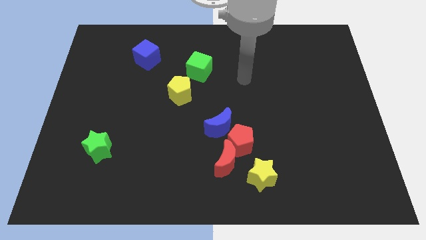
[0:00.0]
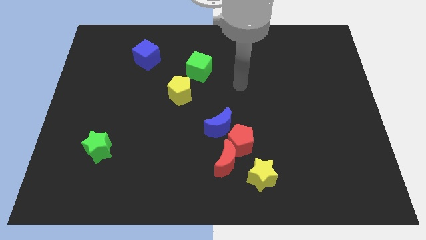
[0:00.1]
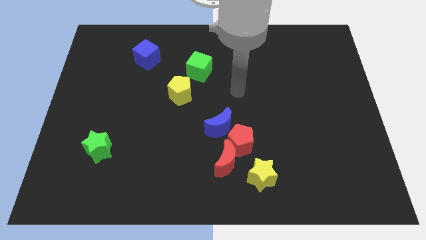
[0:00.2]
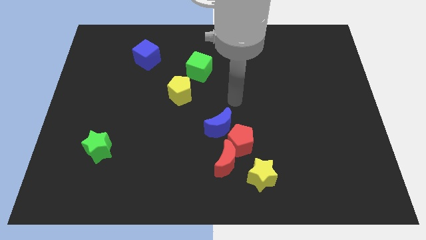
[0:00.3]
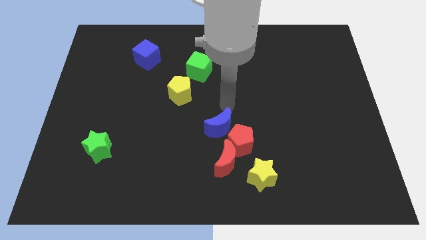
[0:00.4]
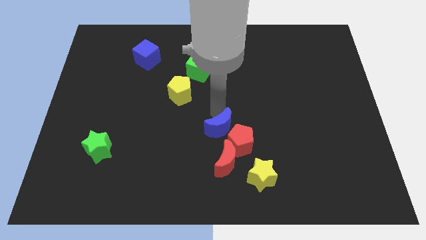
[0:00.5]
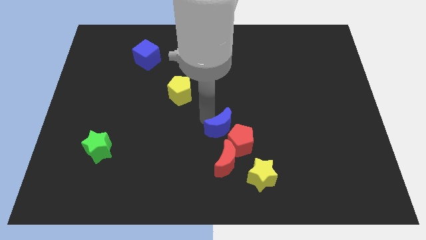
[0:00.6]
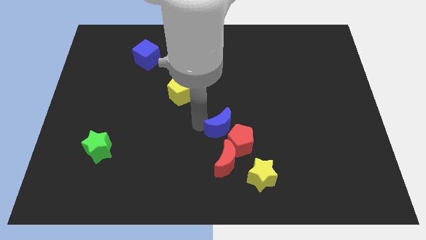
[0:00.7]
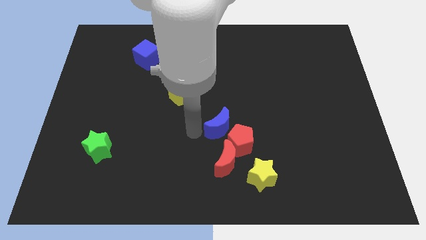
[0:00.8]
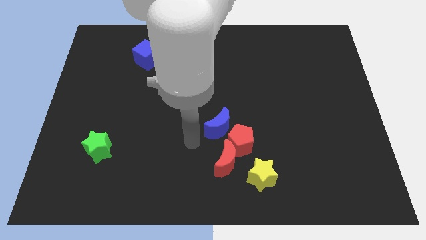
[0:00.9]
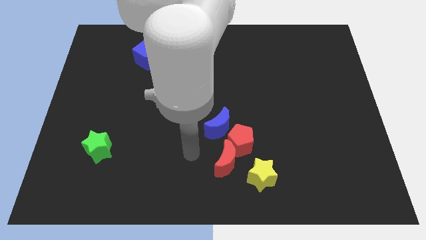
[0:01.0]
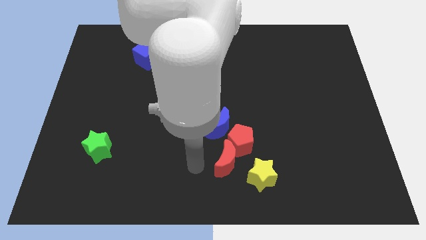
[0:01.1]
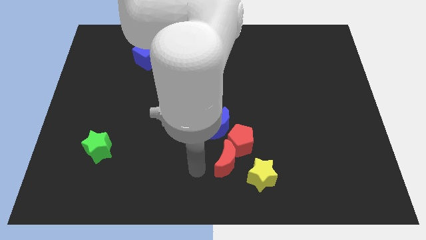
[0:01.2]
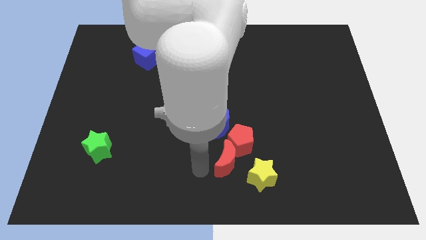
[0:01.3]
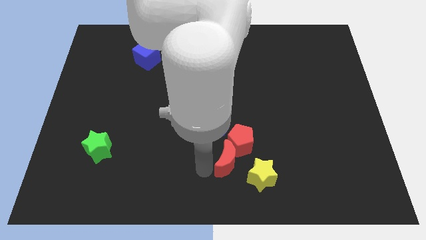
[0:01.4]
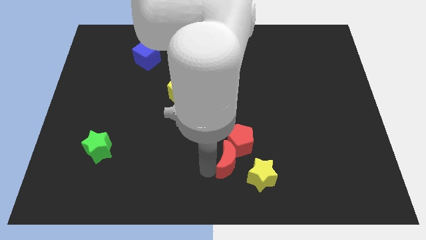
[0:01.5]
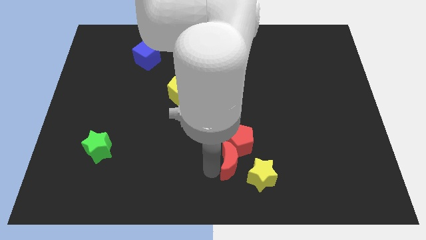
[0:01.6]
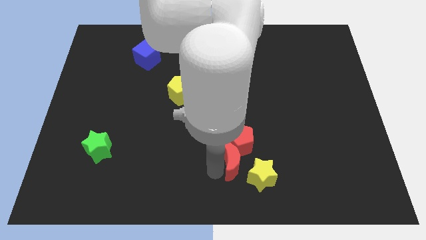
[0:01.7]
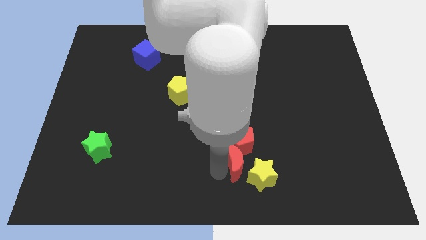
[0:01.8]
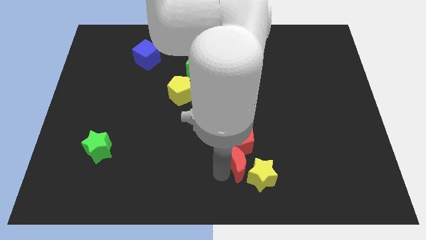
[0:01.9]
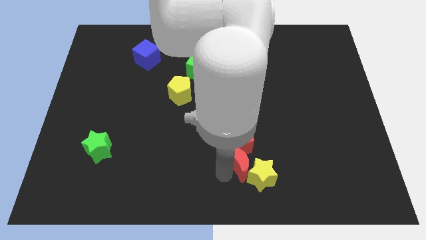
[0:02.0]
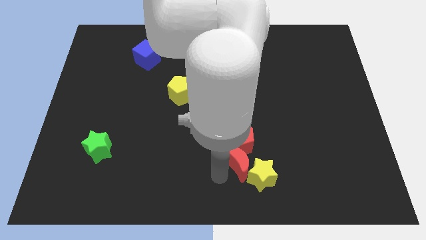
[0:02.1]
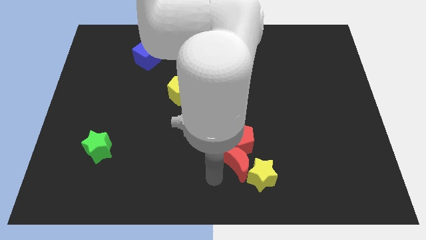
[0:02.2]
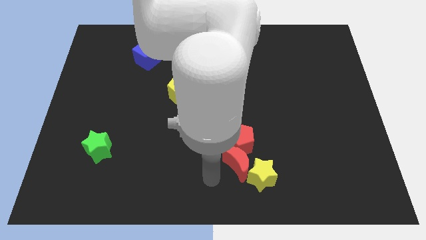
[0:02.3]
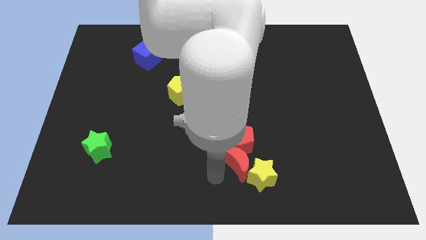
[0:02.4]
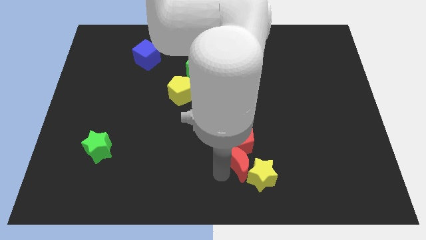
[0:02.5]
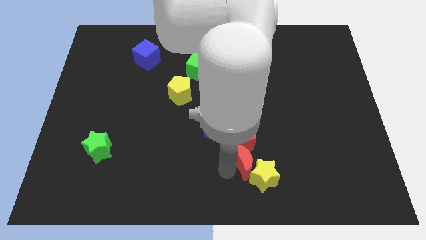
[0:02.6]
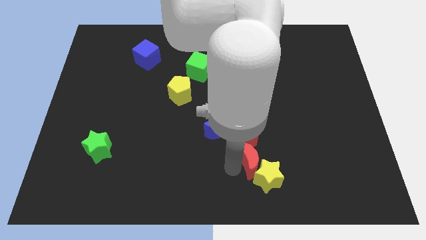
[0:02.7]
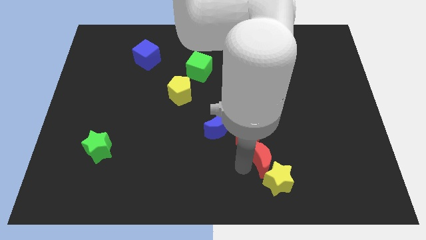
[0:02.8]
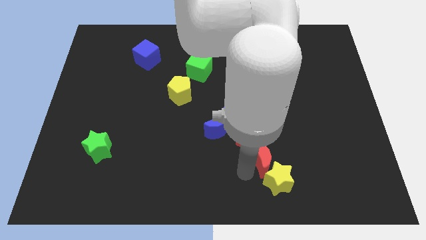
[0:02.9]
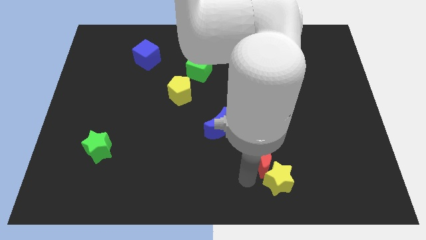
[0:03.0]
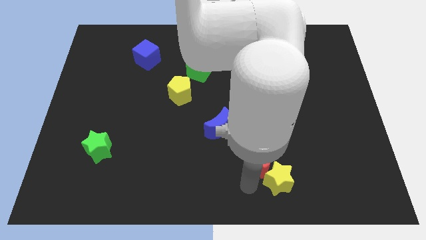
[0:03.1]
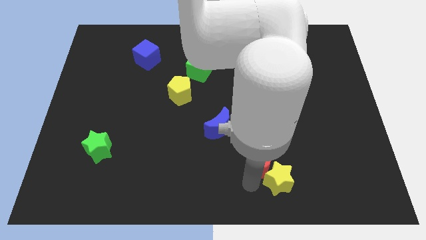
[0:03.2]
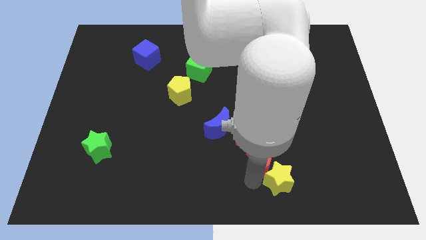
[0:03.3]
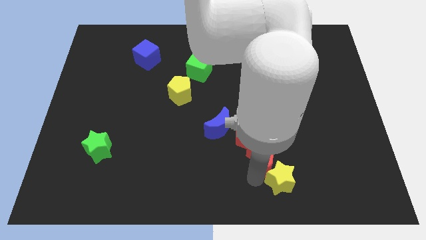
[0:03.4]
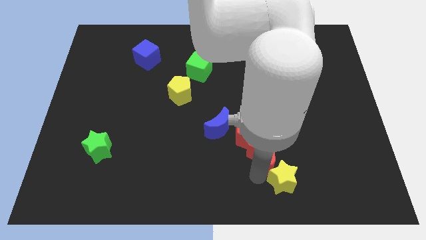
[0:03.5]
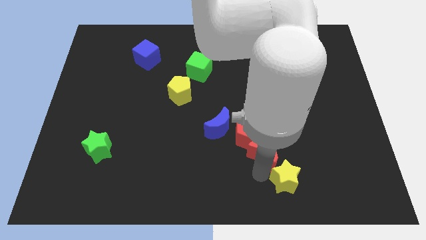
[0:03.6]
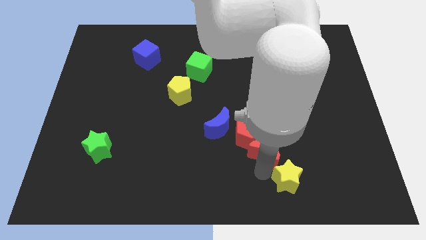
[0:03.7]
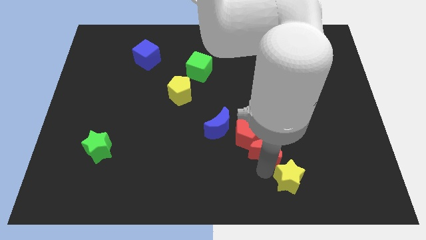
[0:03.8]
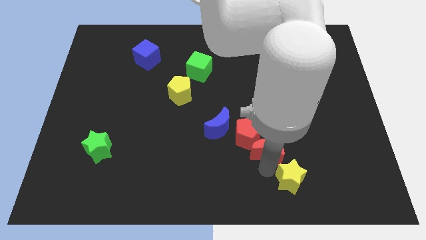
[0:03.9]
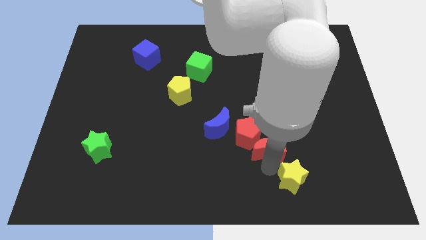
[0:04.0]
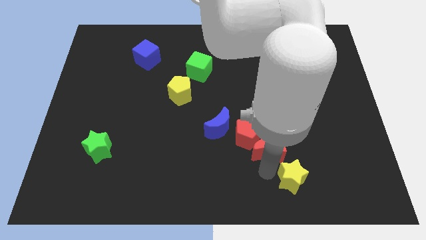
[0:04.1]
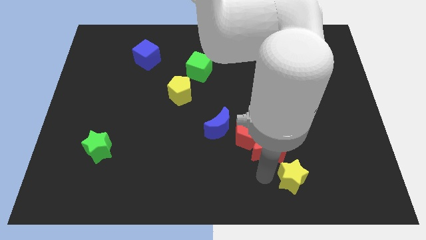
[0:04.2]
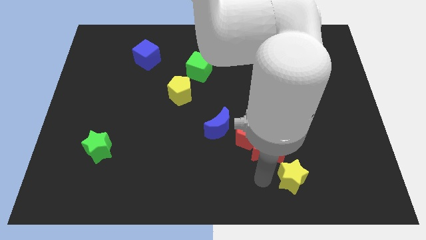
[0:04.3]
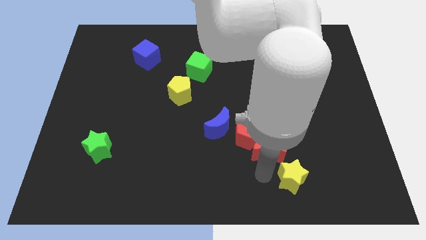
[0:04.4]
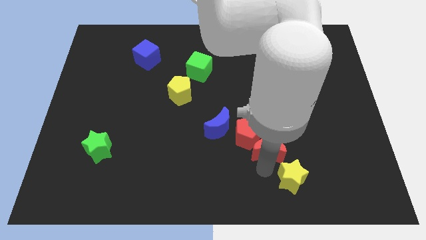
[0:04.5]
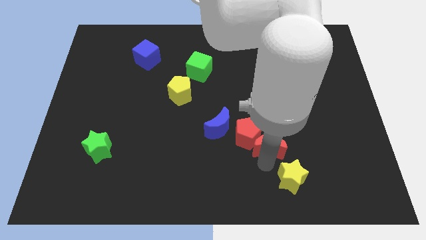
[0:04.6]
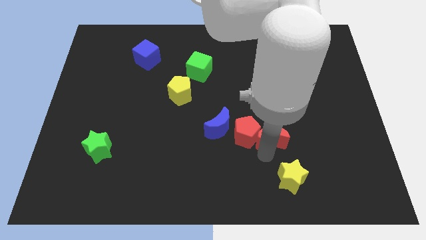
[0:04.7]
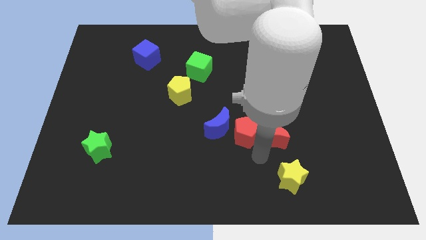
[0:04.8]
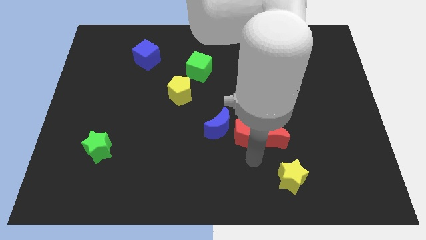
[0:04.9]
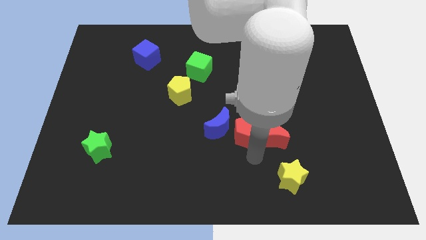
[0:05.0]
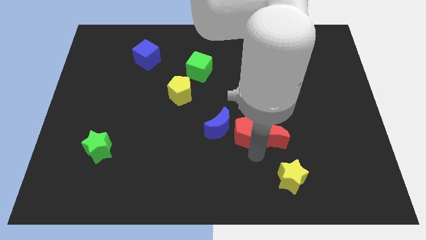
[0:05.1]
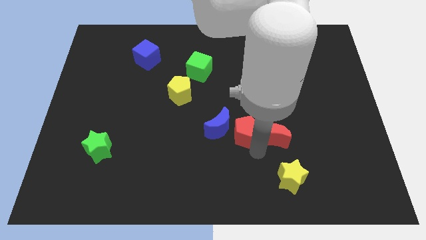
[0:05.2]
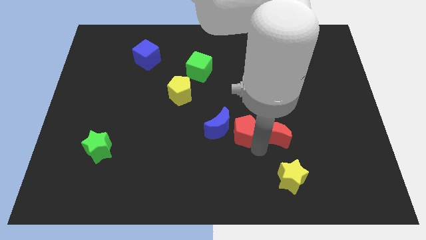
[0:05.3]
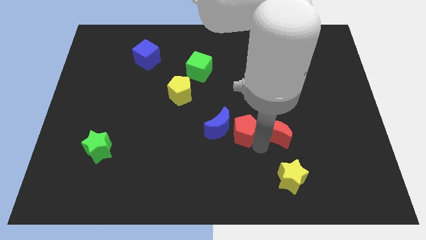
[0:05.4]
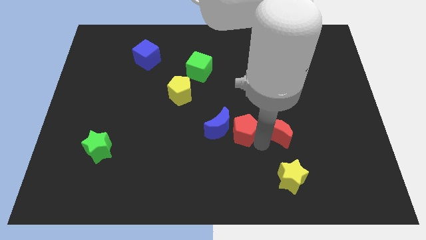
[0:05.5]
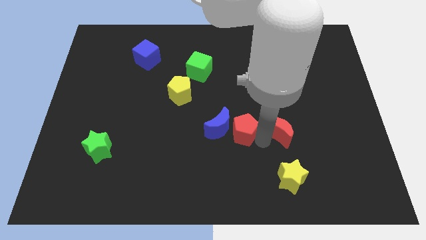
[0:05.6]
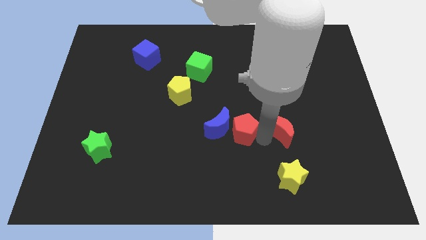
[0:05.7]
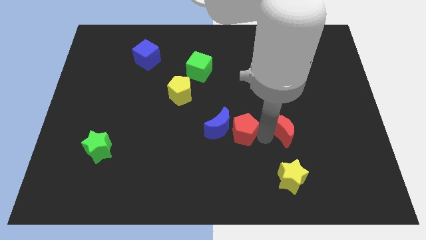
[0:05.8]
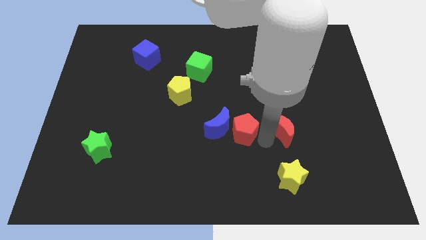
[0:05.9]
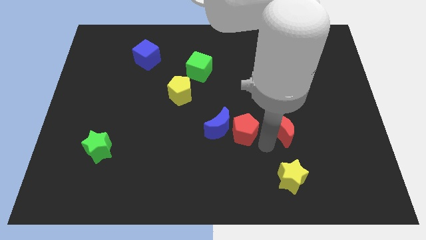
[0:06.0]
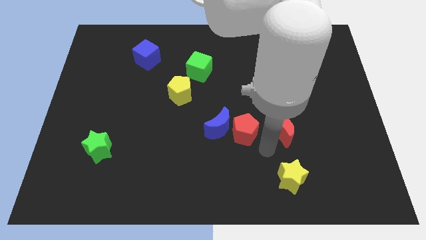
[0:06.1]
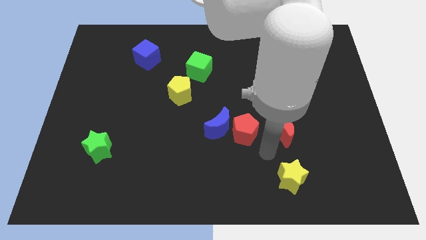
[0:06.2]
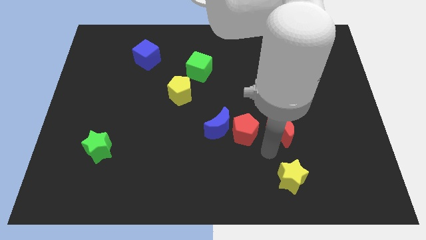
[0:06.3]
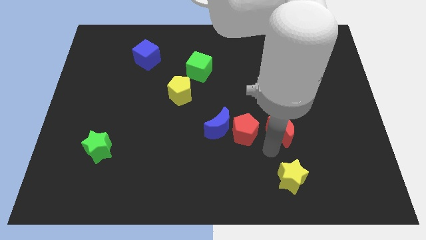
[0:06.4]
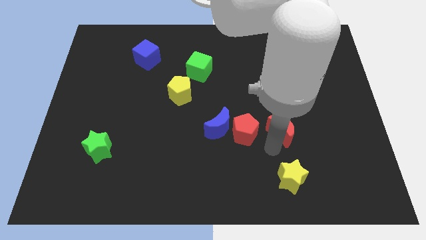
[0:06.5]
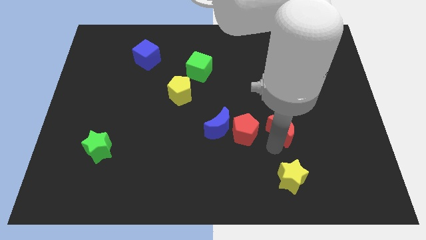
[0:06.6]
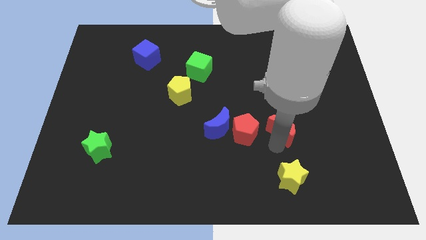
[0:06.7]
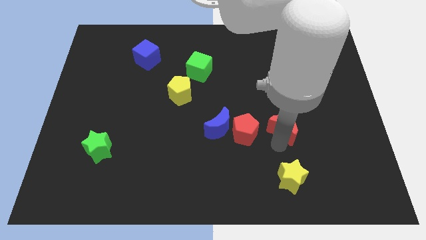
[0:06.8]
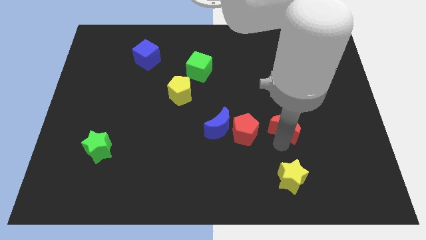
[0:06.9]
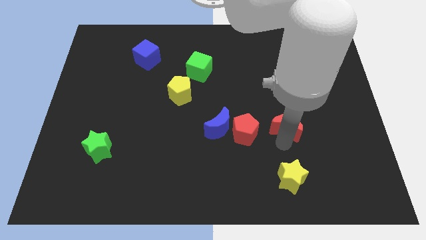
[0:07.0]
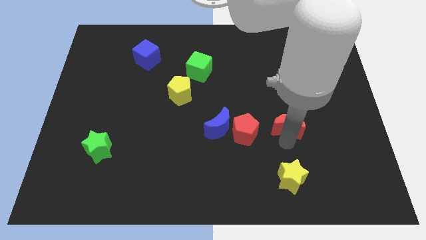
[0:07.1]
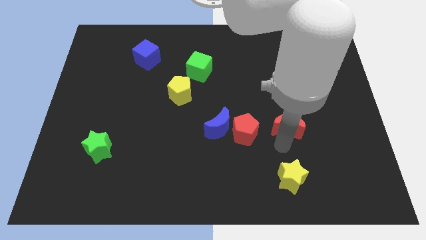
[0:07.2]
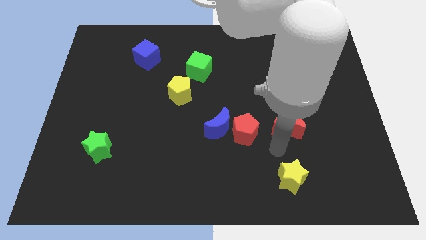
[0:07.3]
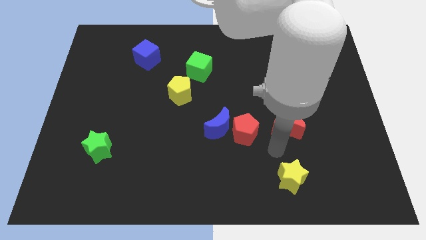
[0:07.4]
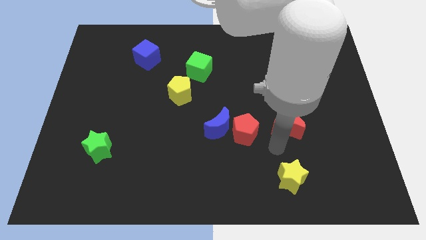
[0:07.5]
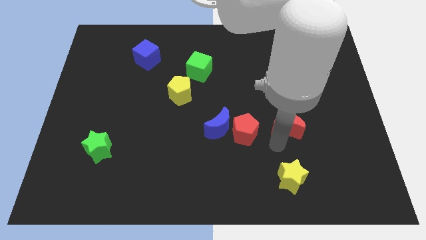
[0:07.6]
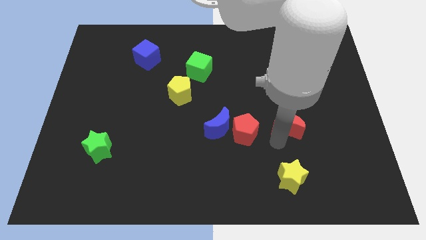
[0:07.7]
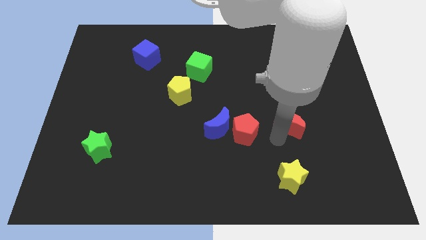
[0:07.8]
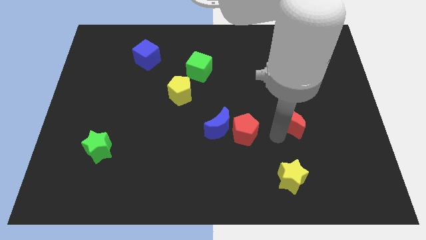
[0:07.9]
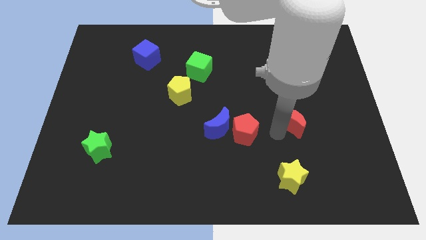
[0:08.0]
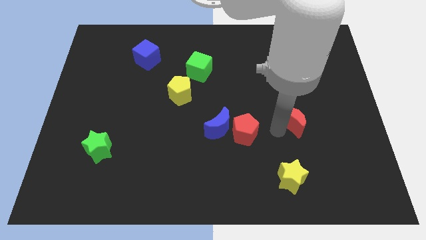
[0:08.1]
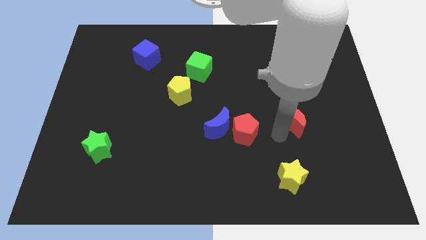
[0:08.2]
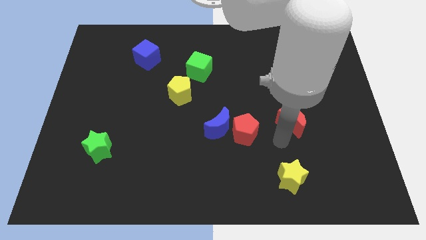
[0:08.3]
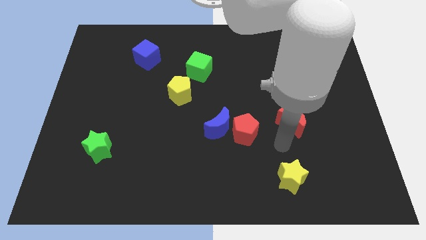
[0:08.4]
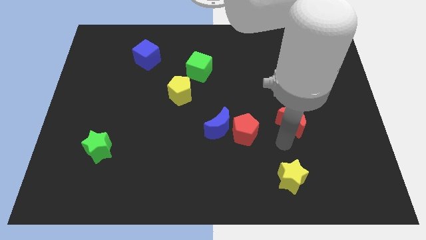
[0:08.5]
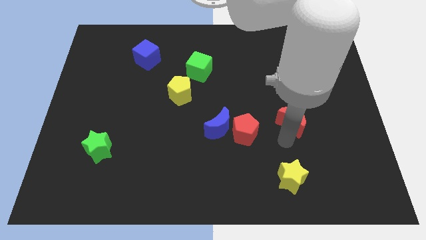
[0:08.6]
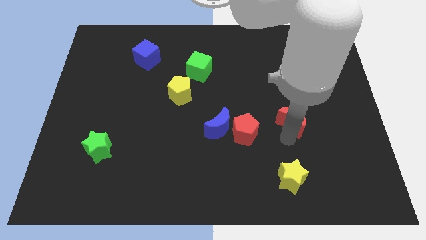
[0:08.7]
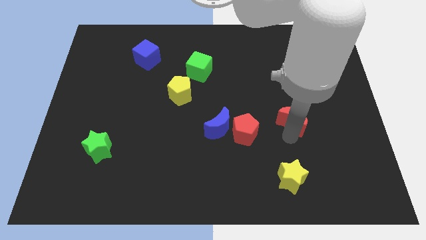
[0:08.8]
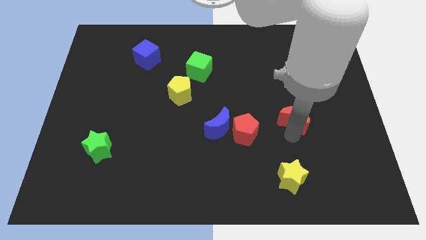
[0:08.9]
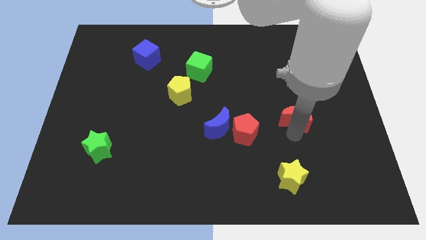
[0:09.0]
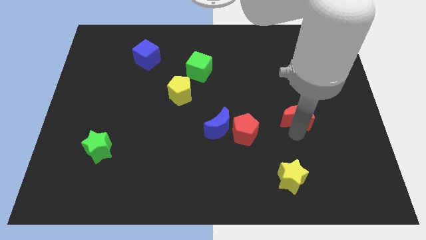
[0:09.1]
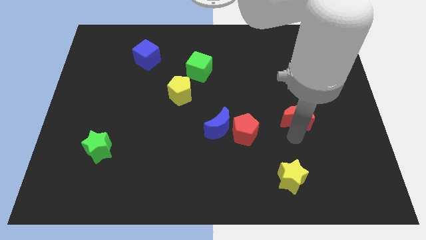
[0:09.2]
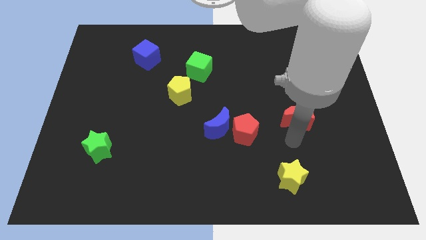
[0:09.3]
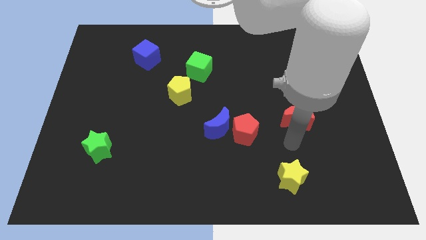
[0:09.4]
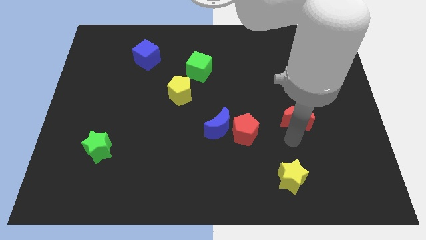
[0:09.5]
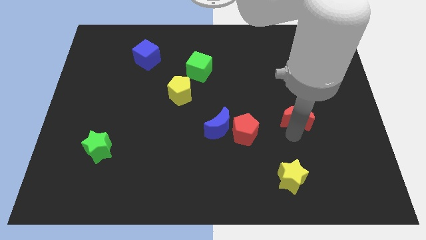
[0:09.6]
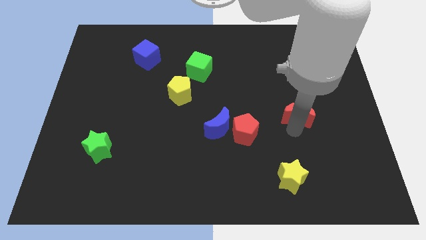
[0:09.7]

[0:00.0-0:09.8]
push the red moon upwards and to the right
